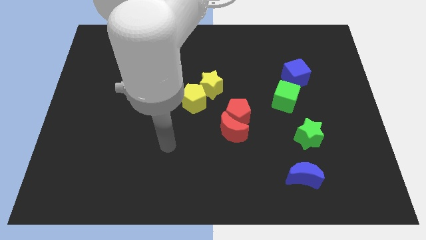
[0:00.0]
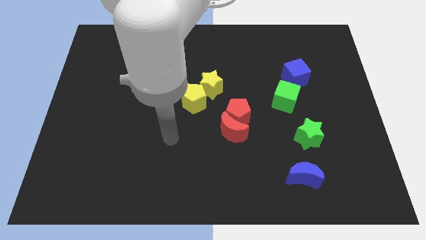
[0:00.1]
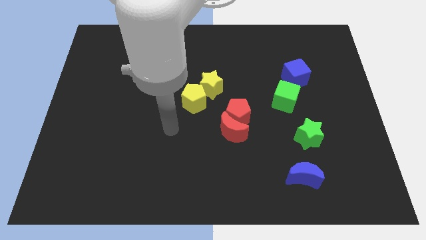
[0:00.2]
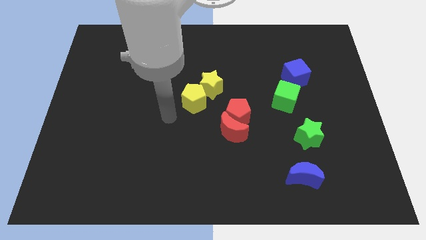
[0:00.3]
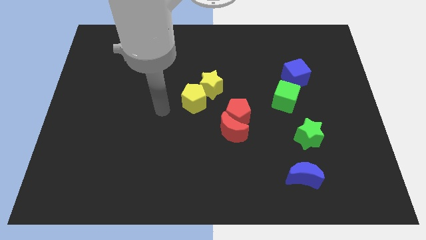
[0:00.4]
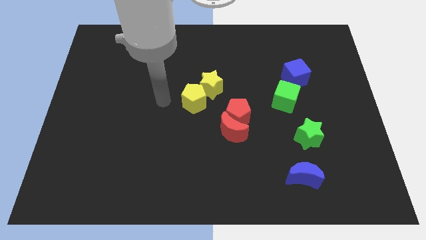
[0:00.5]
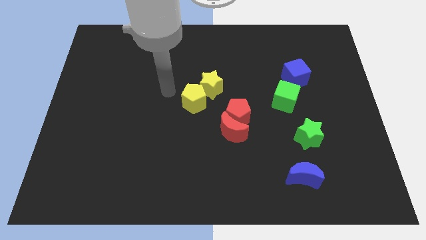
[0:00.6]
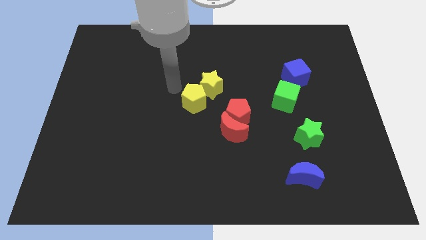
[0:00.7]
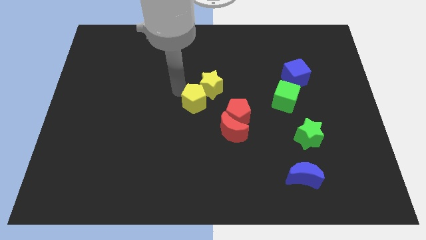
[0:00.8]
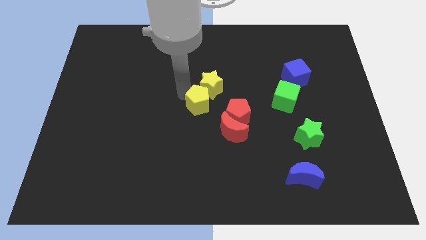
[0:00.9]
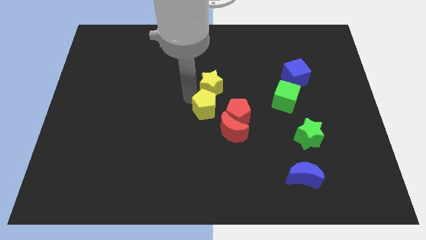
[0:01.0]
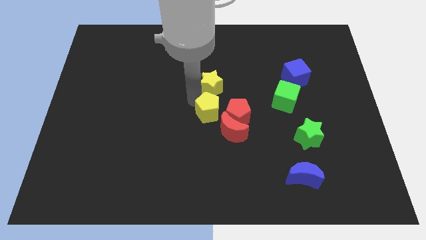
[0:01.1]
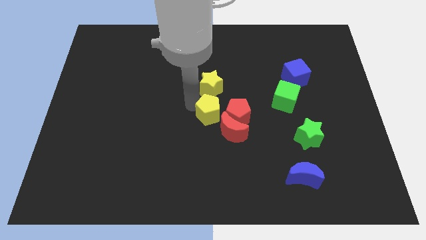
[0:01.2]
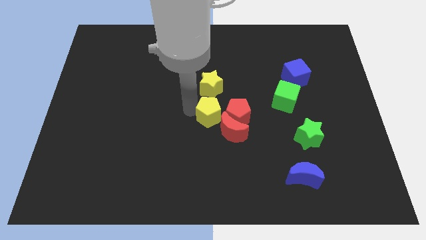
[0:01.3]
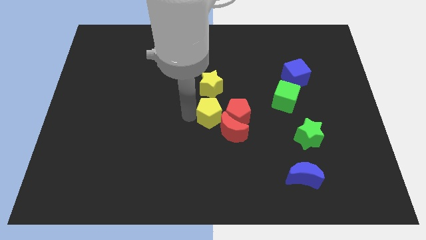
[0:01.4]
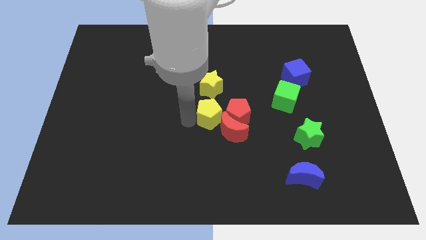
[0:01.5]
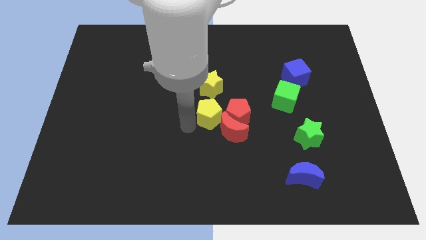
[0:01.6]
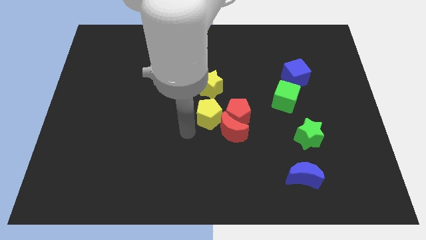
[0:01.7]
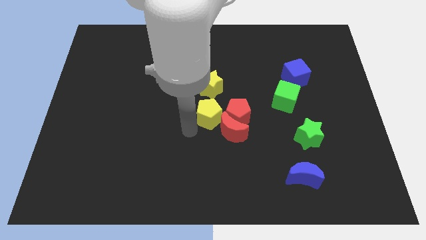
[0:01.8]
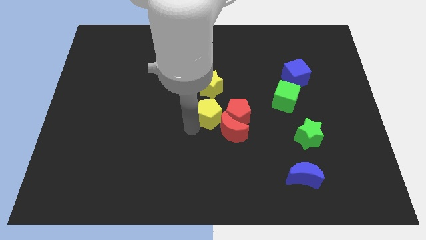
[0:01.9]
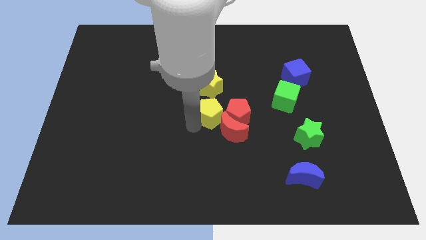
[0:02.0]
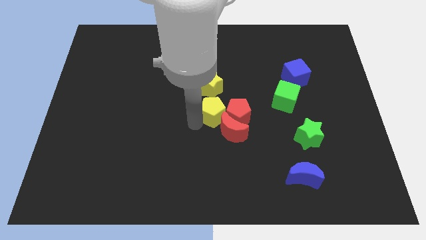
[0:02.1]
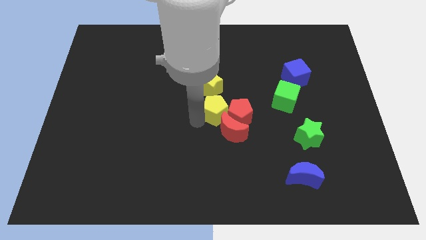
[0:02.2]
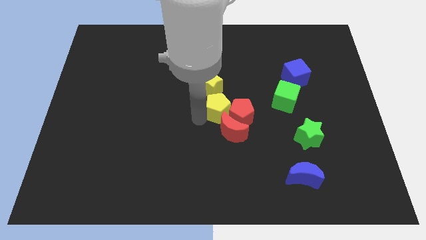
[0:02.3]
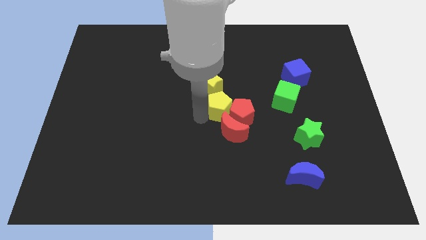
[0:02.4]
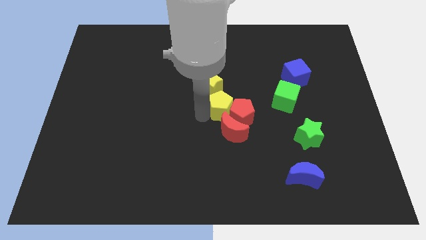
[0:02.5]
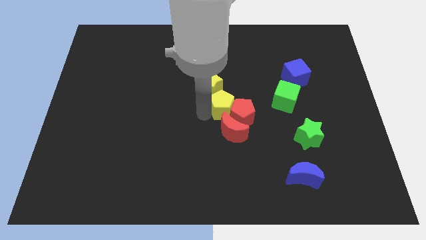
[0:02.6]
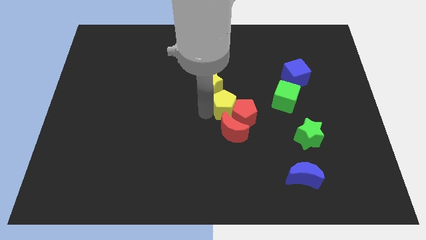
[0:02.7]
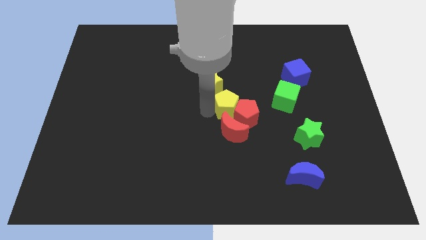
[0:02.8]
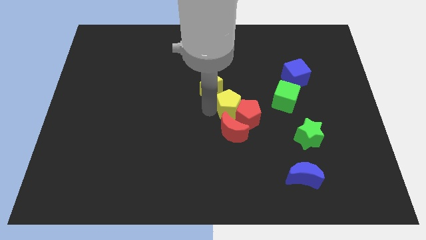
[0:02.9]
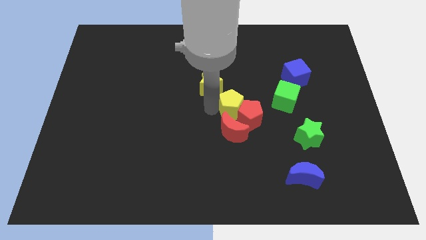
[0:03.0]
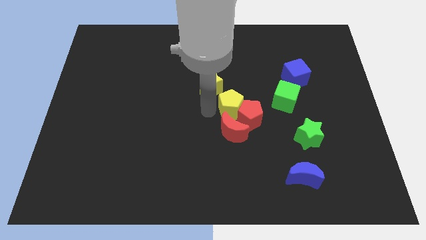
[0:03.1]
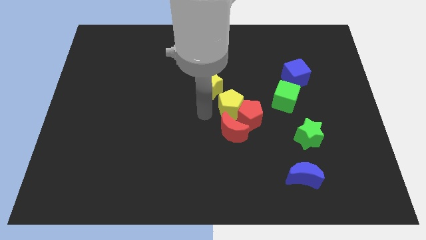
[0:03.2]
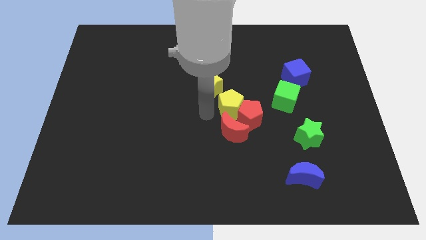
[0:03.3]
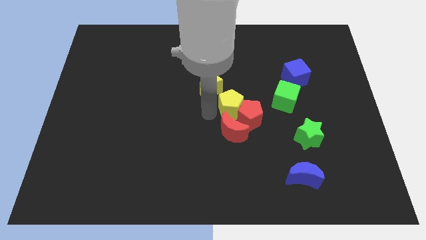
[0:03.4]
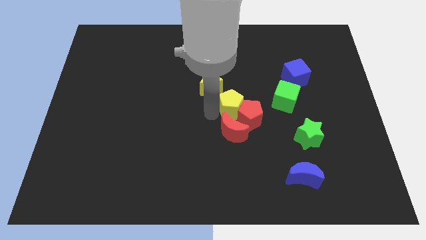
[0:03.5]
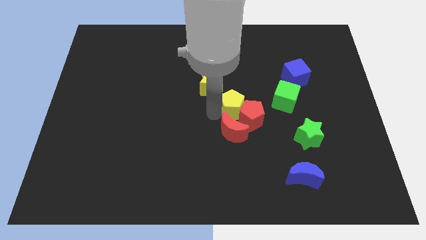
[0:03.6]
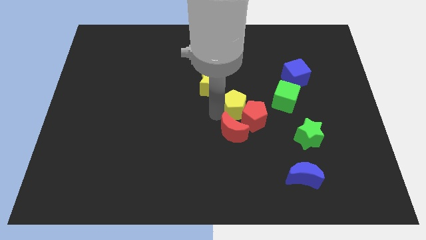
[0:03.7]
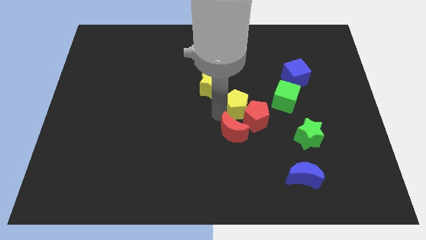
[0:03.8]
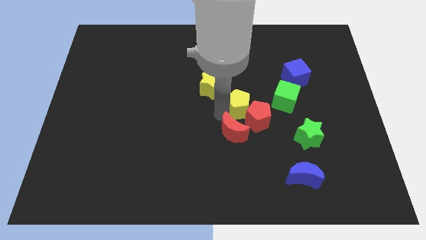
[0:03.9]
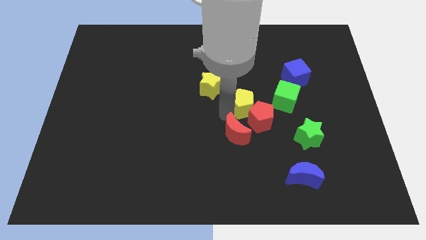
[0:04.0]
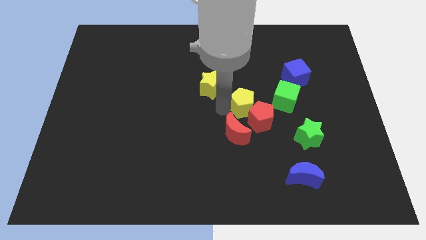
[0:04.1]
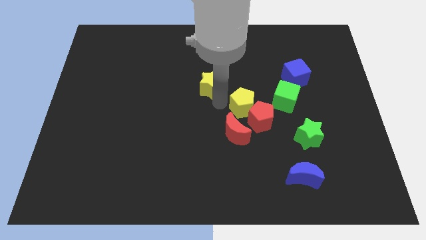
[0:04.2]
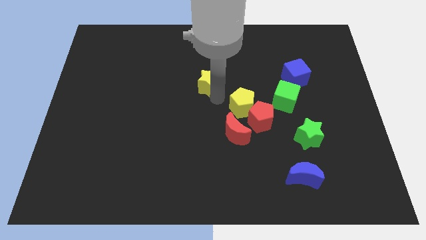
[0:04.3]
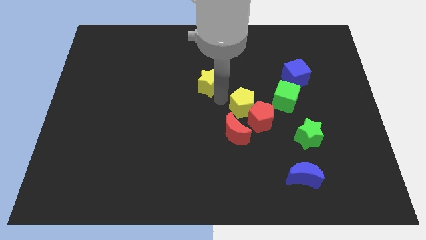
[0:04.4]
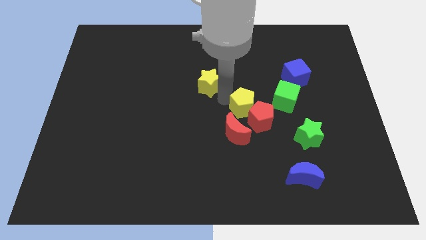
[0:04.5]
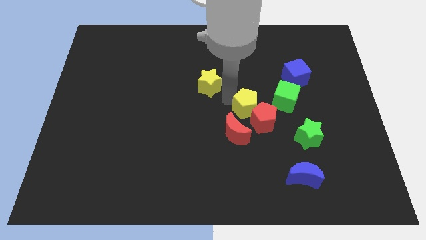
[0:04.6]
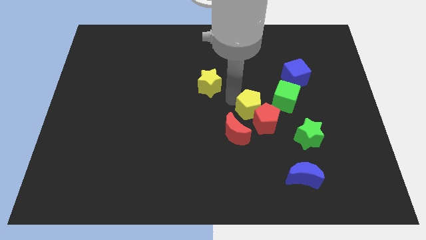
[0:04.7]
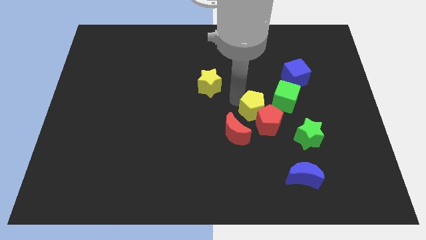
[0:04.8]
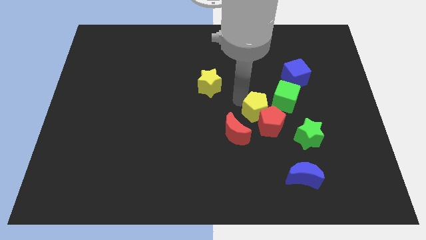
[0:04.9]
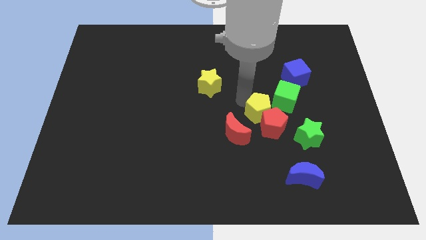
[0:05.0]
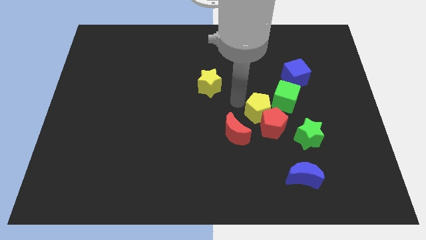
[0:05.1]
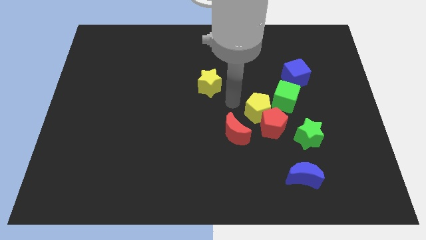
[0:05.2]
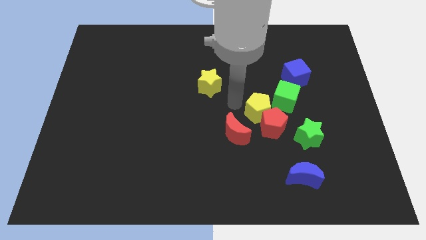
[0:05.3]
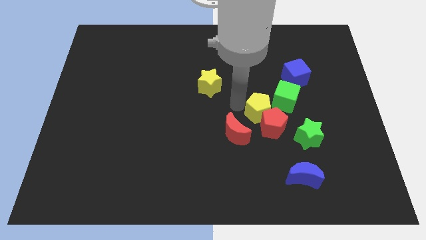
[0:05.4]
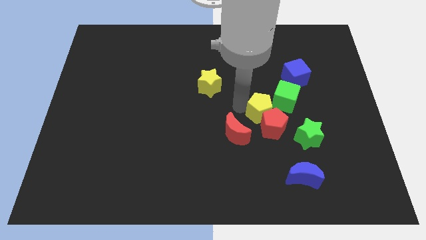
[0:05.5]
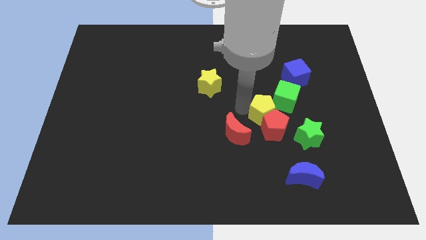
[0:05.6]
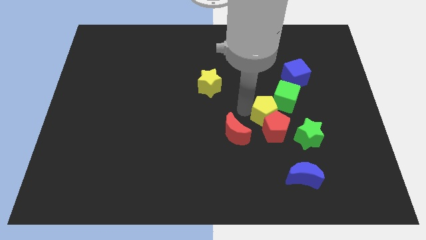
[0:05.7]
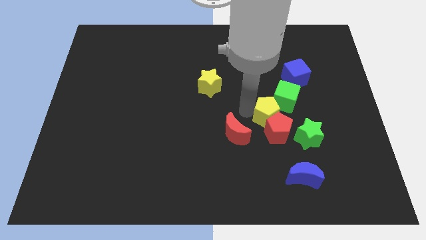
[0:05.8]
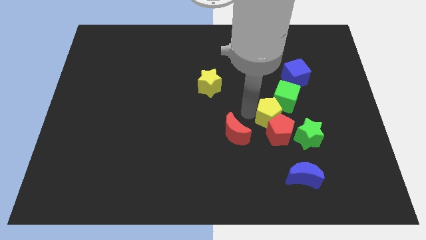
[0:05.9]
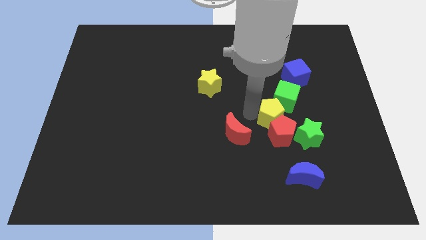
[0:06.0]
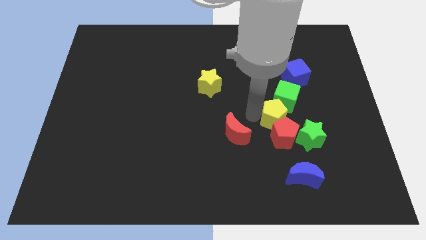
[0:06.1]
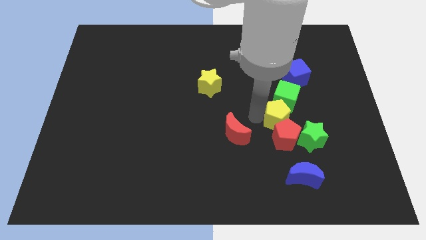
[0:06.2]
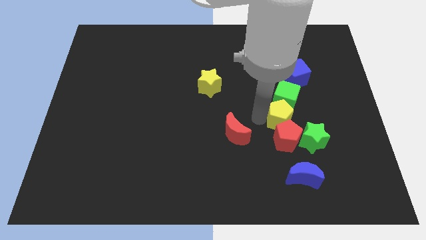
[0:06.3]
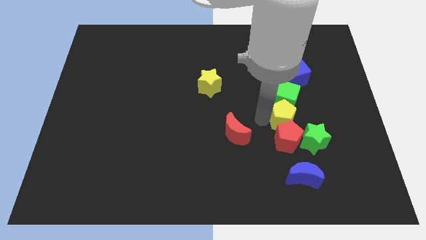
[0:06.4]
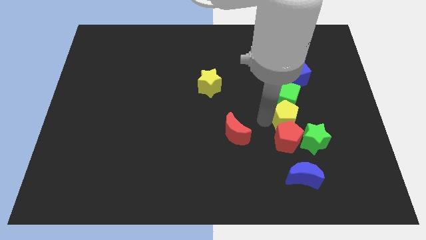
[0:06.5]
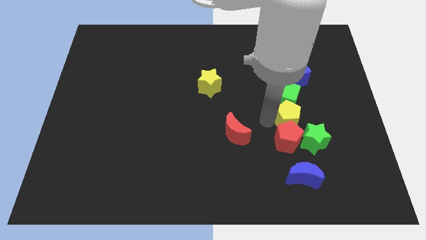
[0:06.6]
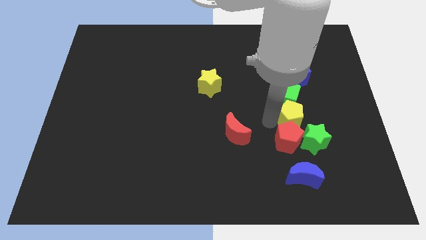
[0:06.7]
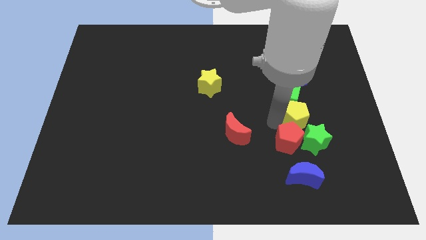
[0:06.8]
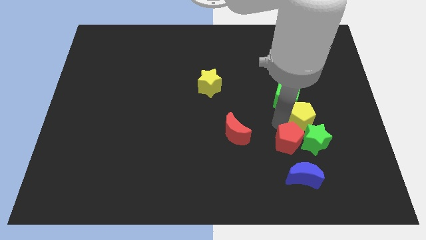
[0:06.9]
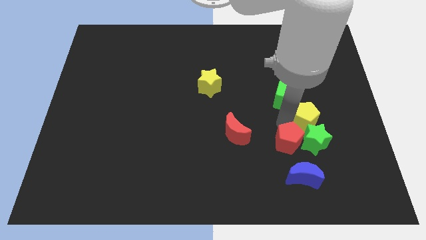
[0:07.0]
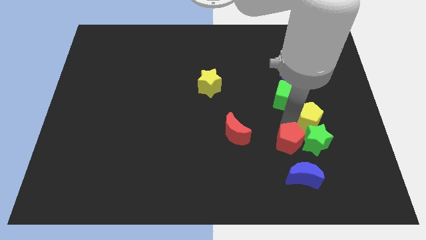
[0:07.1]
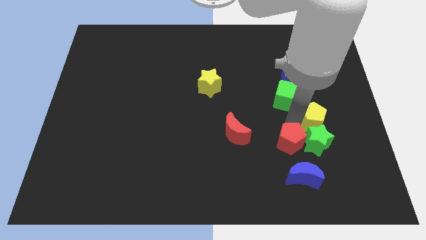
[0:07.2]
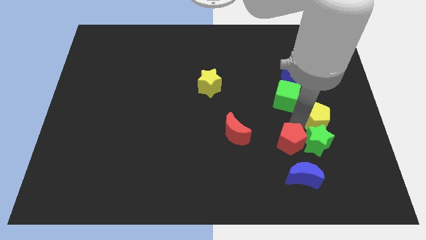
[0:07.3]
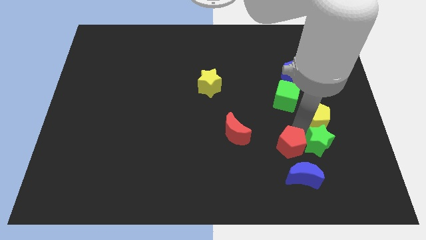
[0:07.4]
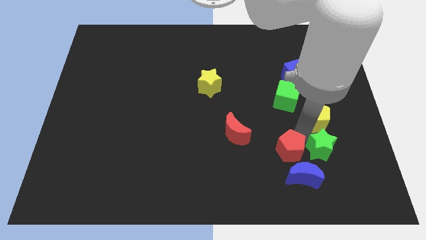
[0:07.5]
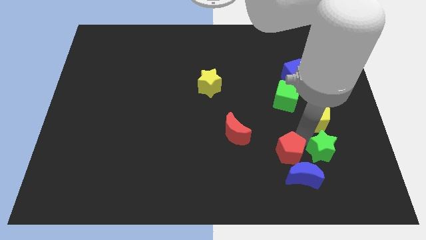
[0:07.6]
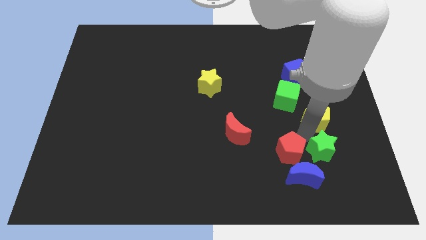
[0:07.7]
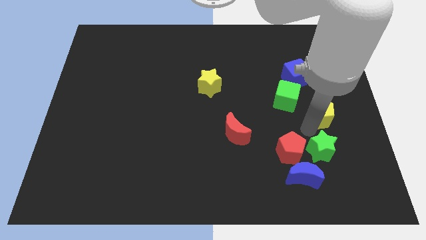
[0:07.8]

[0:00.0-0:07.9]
push the yellow pentagon to the right of the green cube
